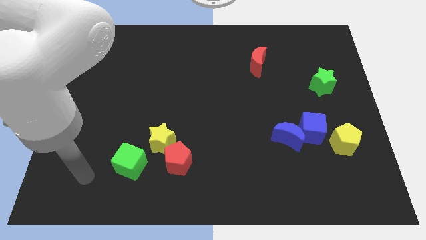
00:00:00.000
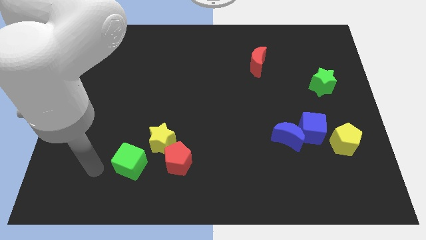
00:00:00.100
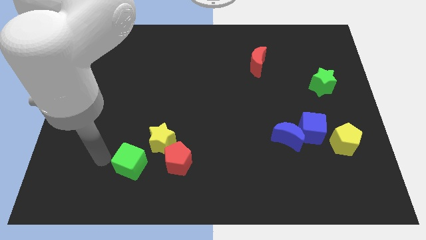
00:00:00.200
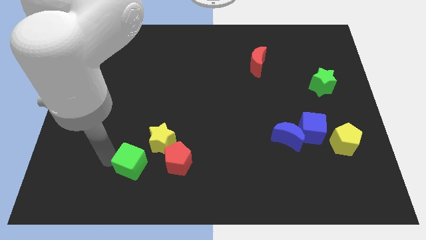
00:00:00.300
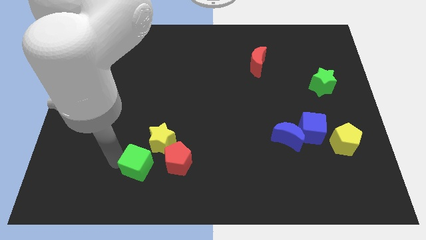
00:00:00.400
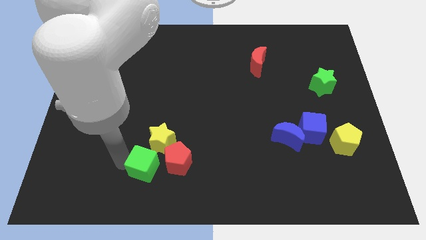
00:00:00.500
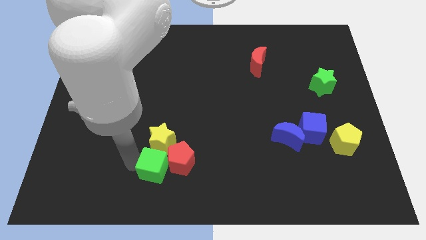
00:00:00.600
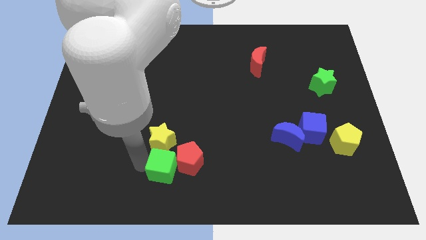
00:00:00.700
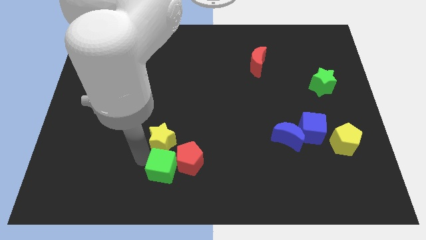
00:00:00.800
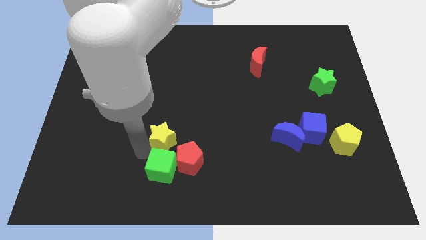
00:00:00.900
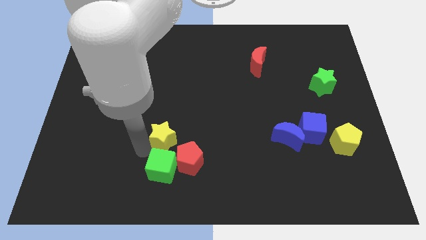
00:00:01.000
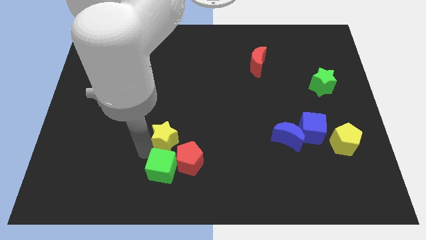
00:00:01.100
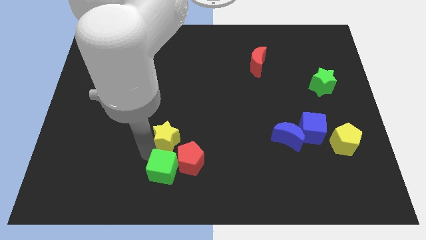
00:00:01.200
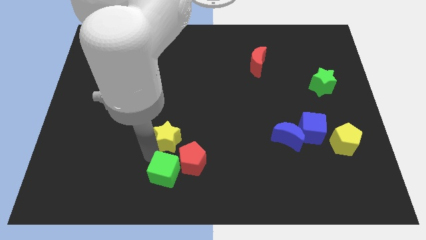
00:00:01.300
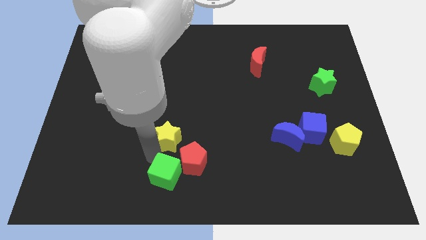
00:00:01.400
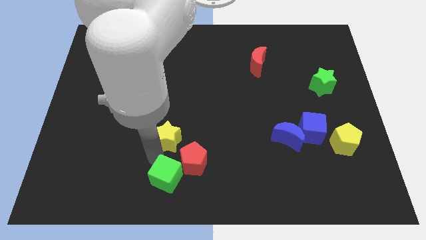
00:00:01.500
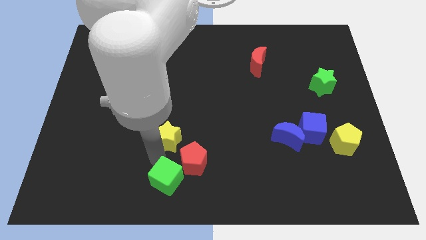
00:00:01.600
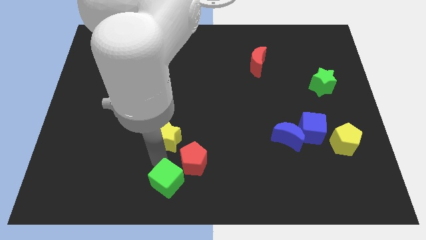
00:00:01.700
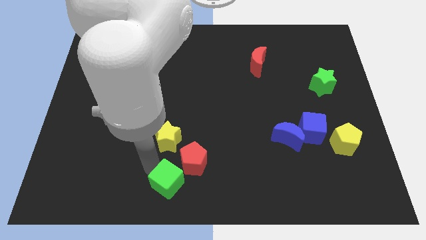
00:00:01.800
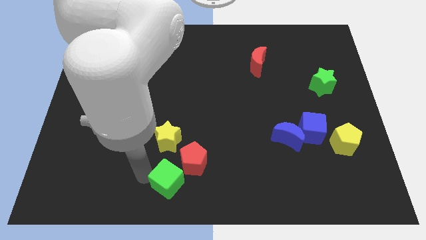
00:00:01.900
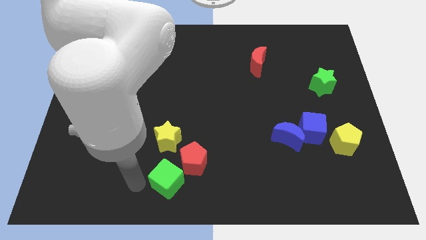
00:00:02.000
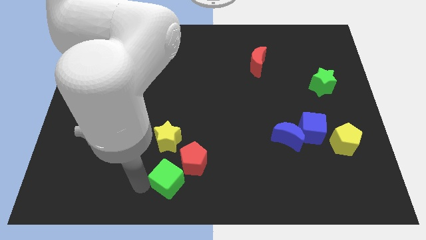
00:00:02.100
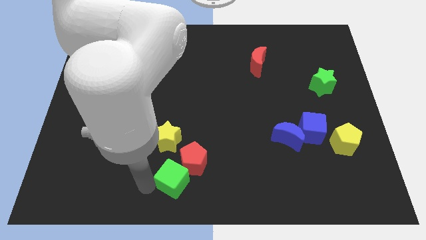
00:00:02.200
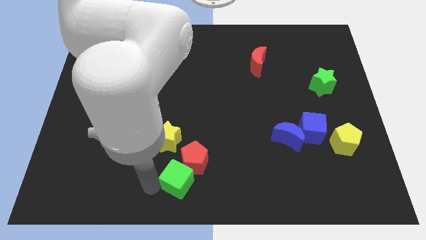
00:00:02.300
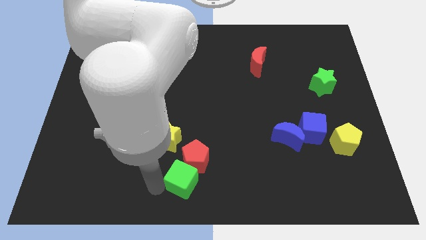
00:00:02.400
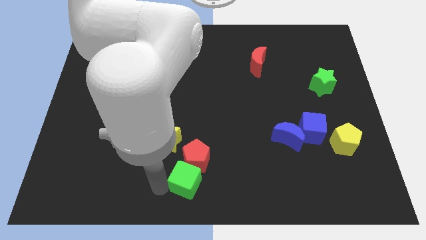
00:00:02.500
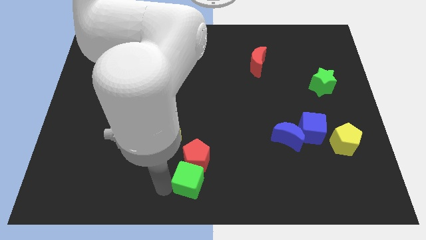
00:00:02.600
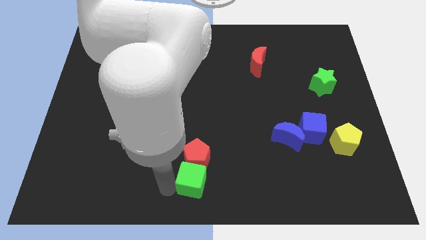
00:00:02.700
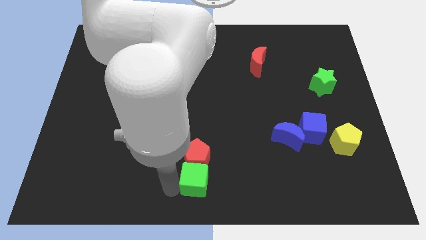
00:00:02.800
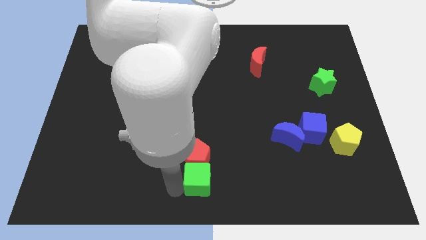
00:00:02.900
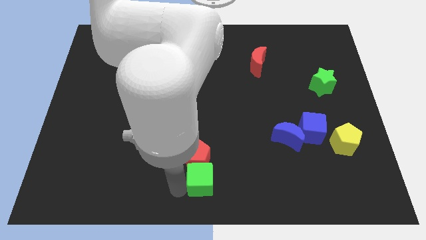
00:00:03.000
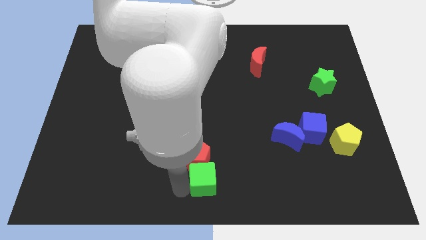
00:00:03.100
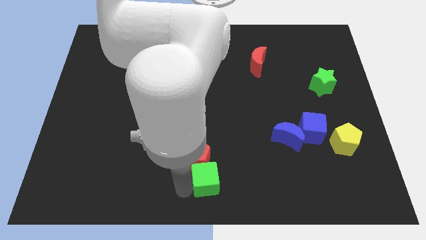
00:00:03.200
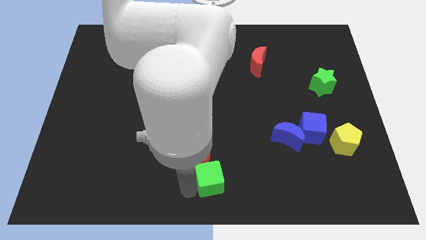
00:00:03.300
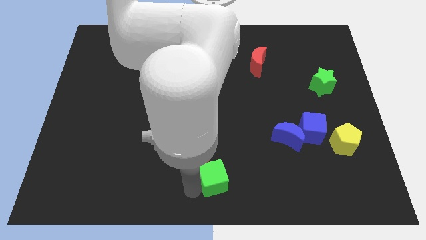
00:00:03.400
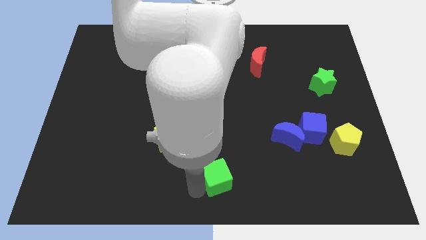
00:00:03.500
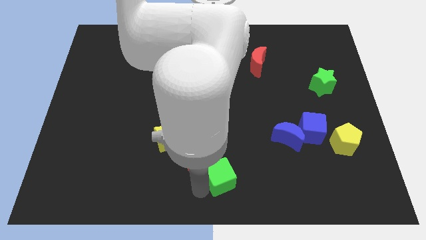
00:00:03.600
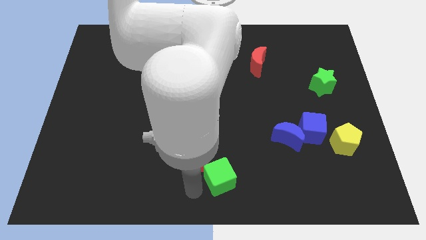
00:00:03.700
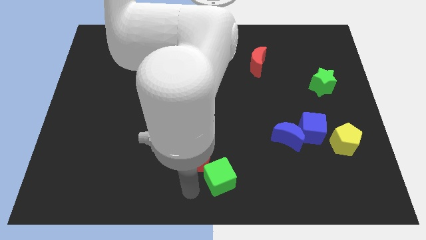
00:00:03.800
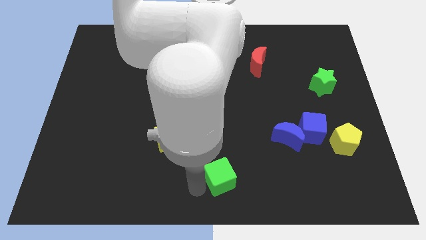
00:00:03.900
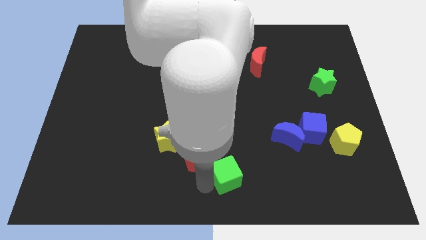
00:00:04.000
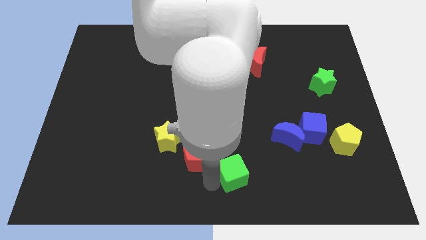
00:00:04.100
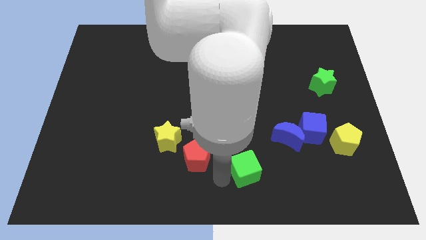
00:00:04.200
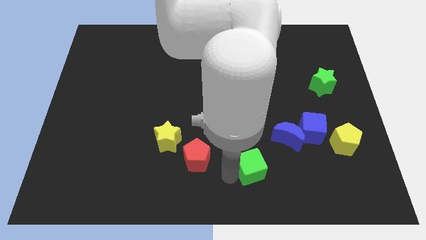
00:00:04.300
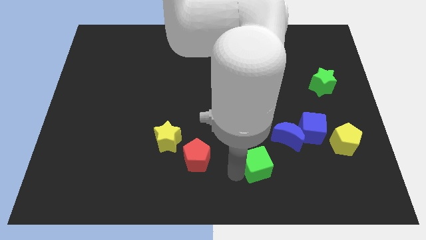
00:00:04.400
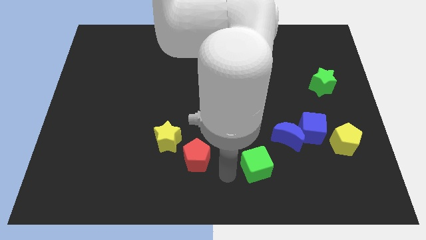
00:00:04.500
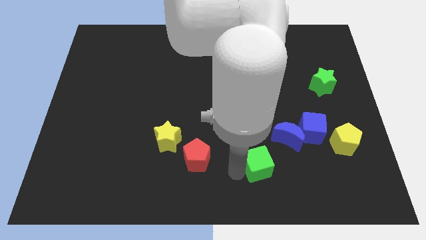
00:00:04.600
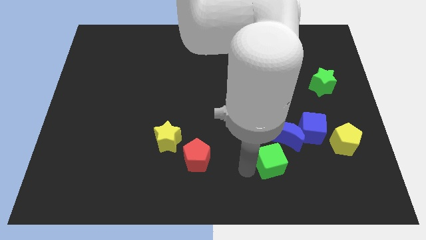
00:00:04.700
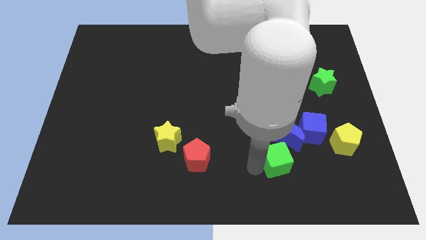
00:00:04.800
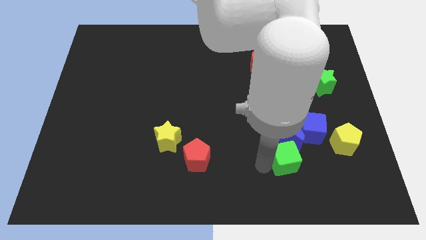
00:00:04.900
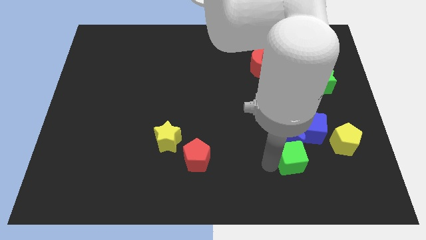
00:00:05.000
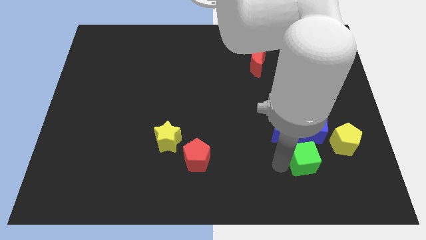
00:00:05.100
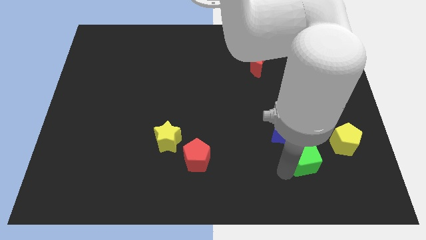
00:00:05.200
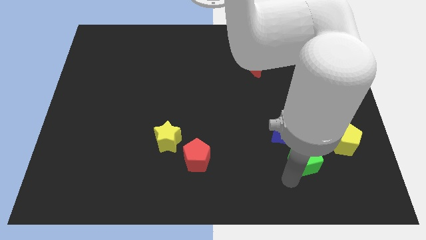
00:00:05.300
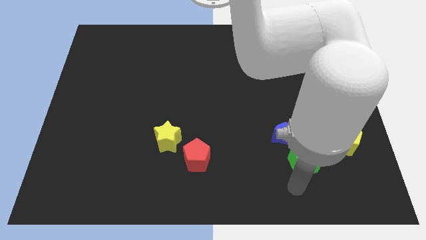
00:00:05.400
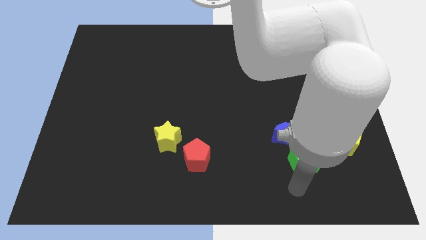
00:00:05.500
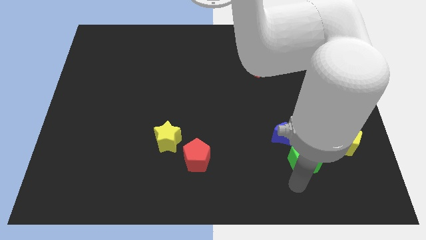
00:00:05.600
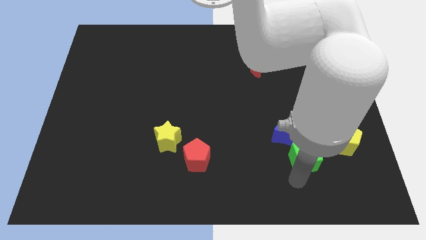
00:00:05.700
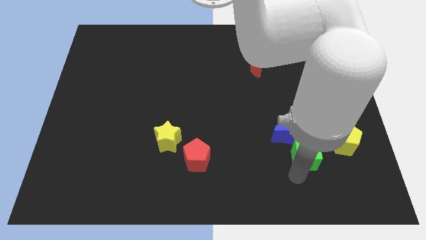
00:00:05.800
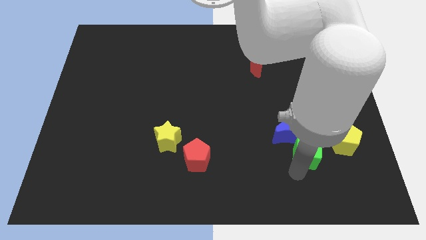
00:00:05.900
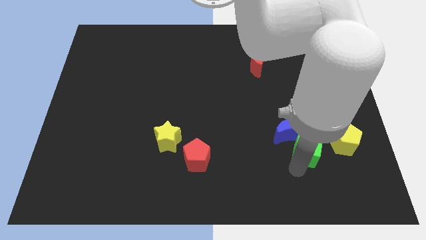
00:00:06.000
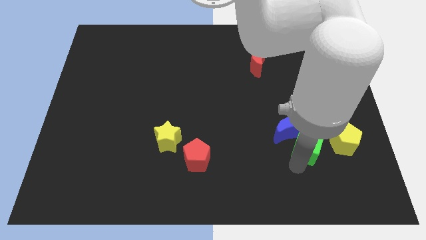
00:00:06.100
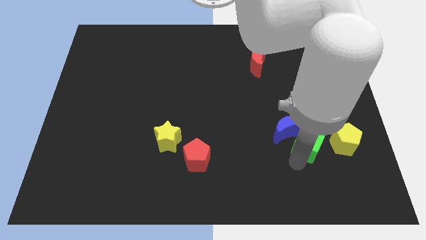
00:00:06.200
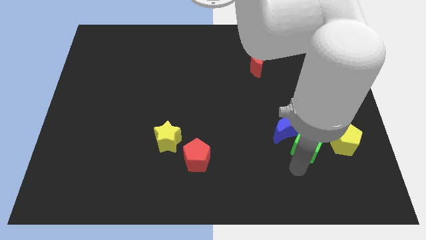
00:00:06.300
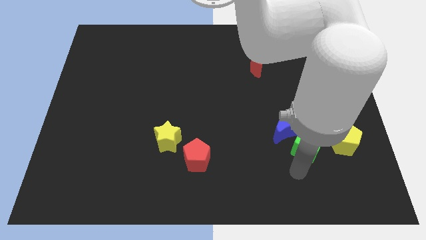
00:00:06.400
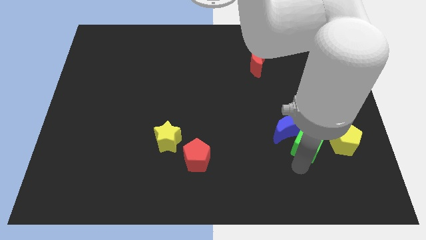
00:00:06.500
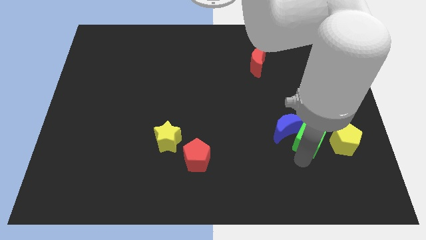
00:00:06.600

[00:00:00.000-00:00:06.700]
slide the green cube to the blue cube
